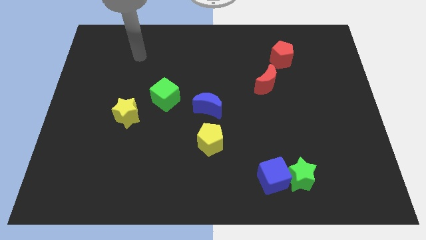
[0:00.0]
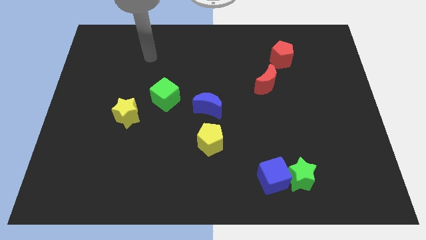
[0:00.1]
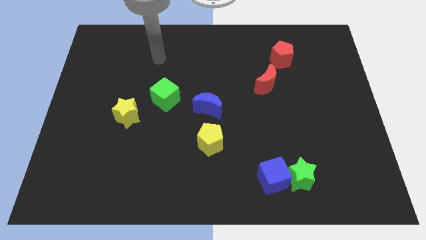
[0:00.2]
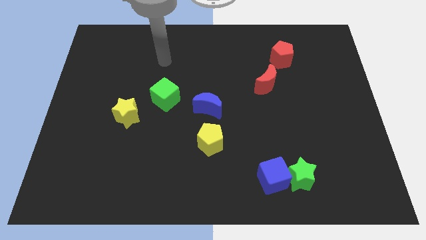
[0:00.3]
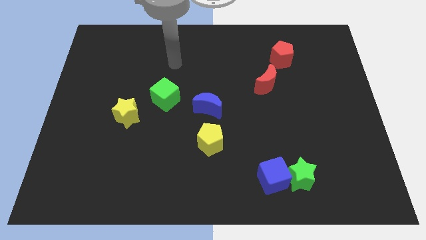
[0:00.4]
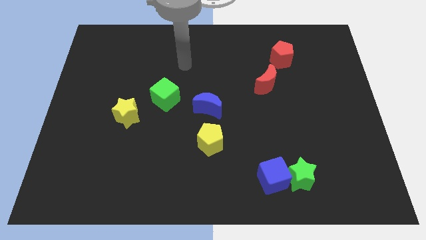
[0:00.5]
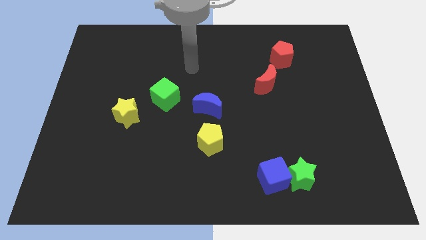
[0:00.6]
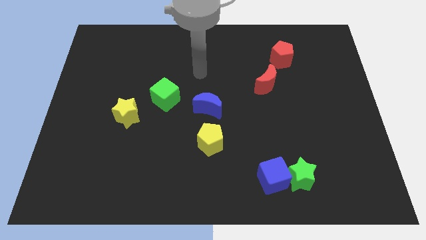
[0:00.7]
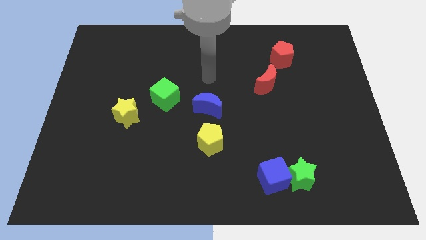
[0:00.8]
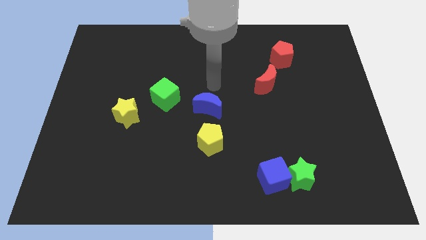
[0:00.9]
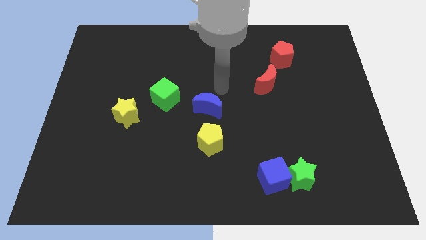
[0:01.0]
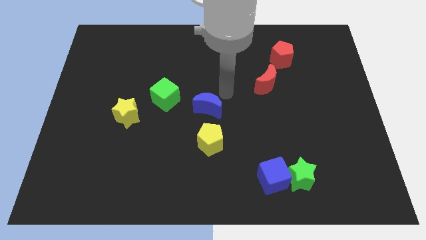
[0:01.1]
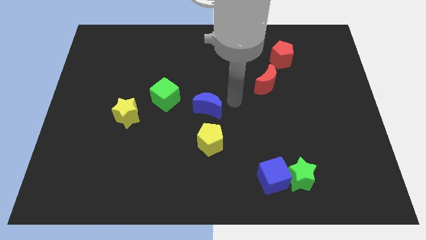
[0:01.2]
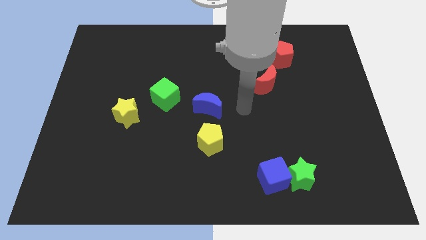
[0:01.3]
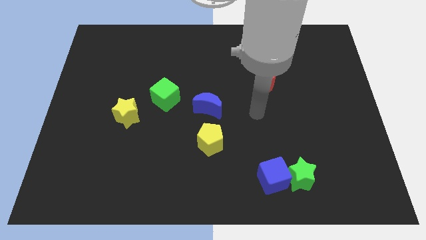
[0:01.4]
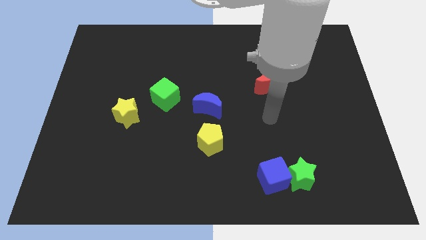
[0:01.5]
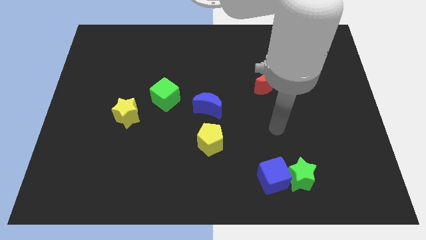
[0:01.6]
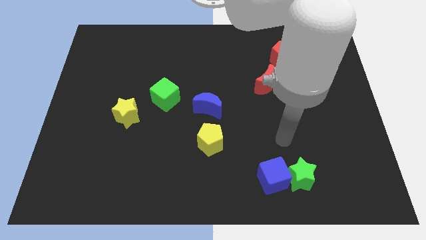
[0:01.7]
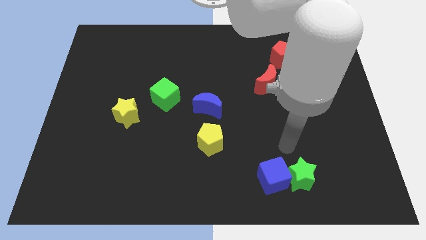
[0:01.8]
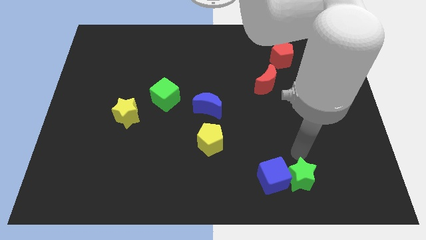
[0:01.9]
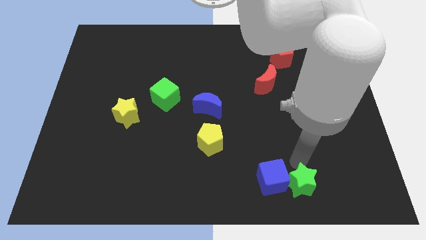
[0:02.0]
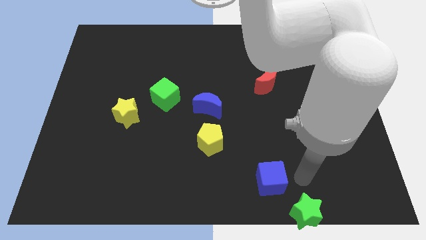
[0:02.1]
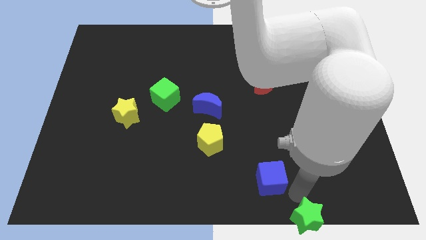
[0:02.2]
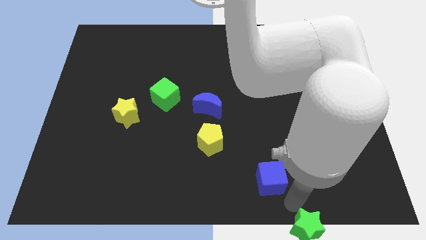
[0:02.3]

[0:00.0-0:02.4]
move the blue cube away from the green star

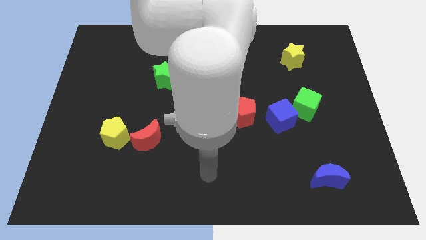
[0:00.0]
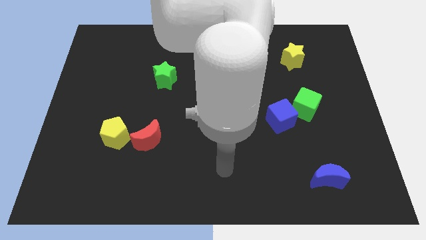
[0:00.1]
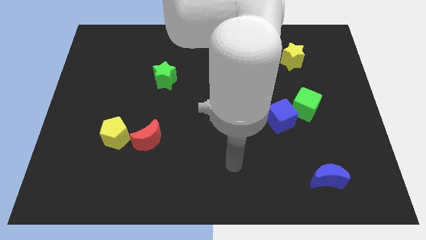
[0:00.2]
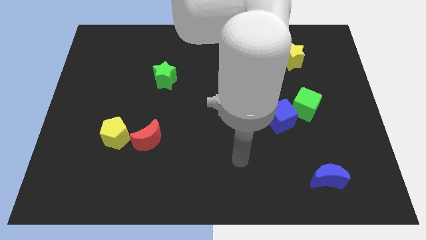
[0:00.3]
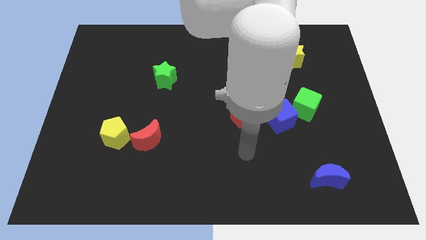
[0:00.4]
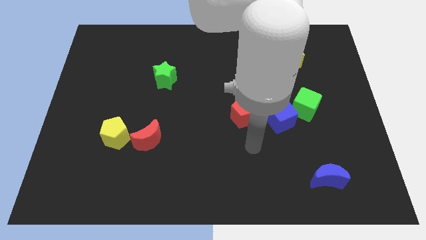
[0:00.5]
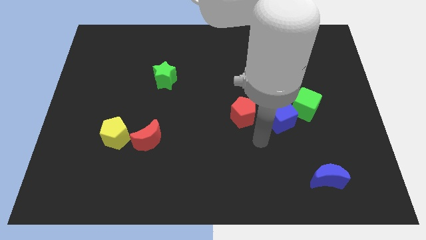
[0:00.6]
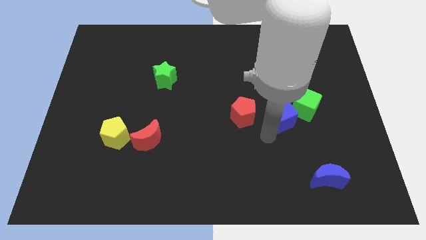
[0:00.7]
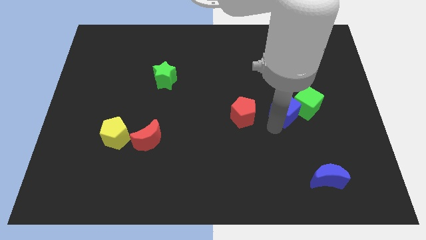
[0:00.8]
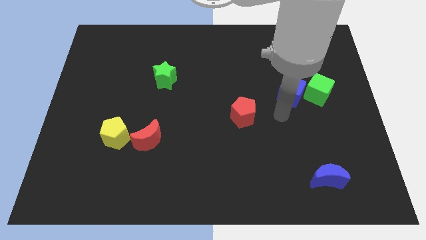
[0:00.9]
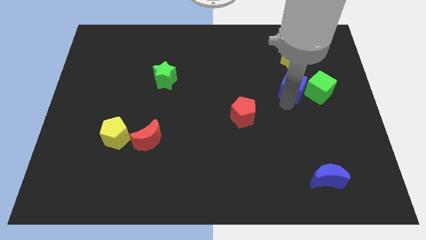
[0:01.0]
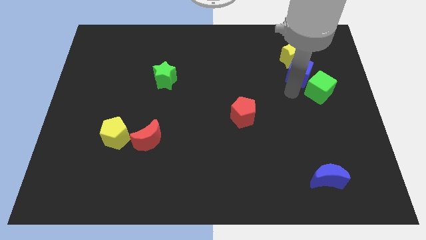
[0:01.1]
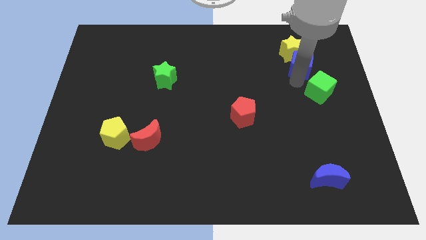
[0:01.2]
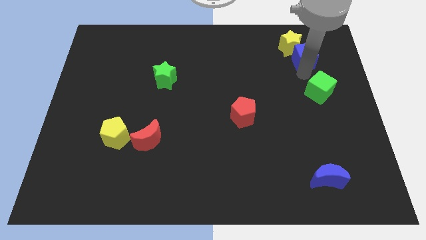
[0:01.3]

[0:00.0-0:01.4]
separate the green cube from the blue cube

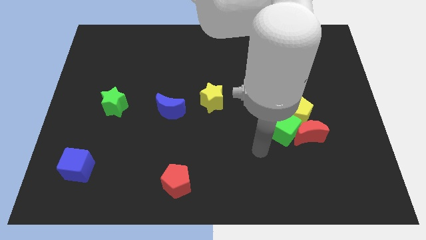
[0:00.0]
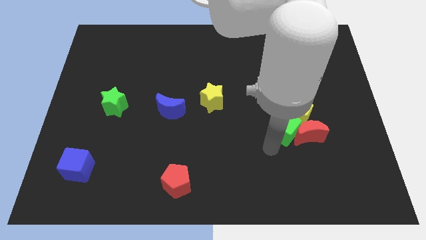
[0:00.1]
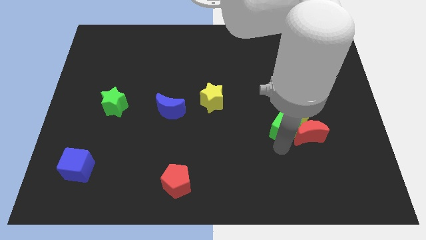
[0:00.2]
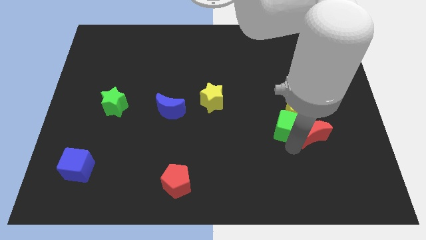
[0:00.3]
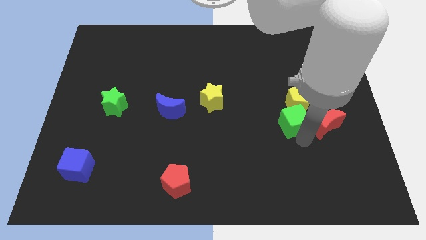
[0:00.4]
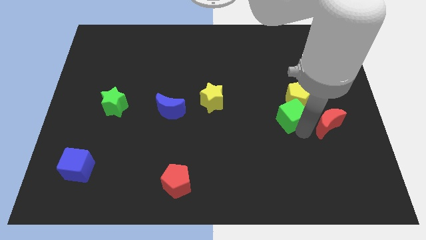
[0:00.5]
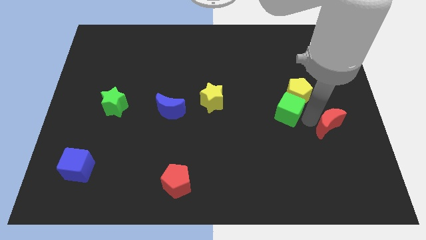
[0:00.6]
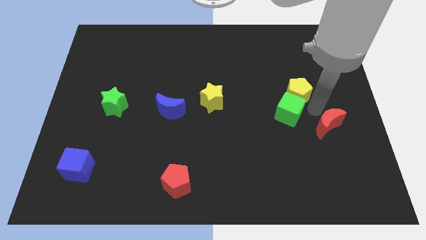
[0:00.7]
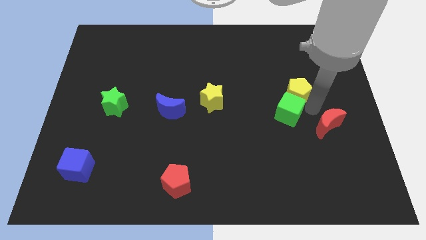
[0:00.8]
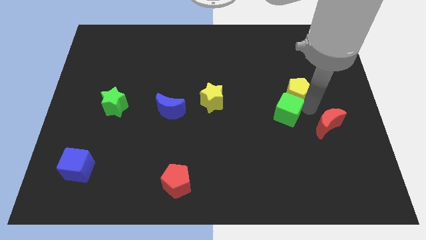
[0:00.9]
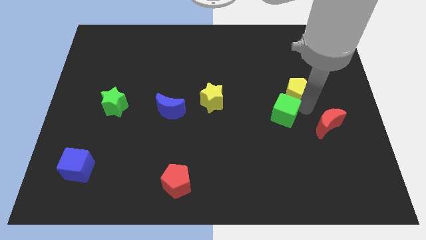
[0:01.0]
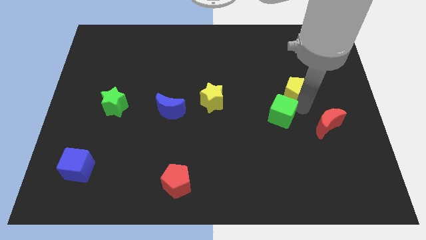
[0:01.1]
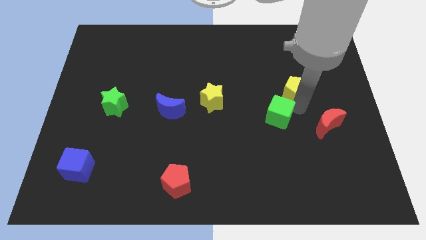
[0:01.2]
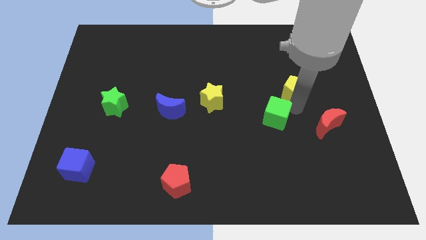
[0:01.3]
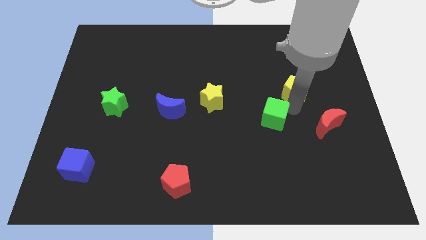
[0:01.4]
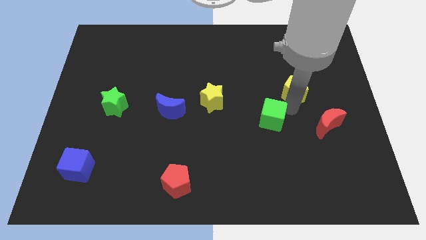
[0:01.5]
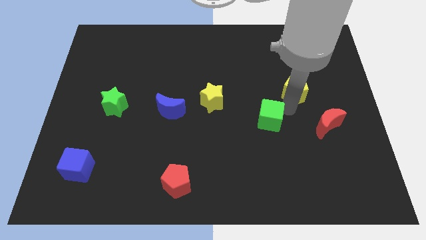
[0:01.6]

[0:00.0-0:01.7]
pull the green cube apart from the red moon and yellow pentagon

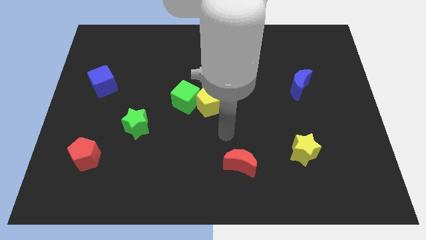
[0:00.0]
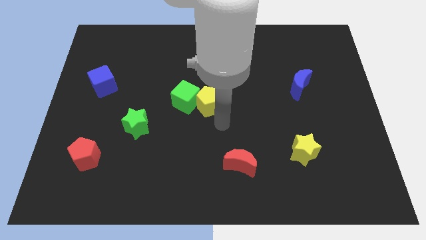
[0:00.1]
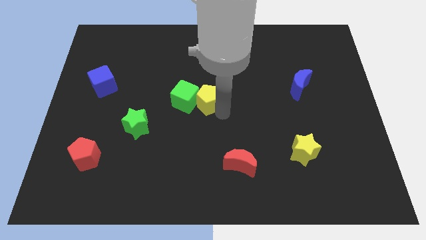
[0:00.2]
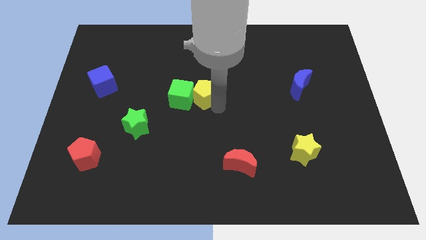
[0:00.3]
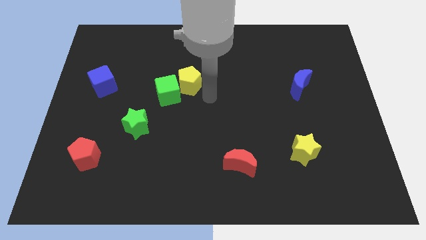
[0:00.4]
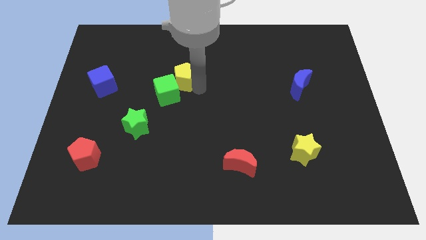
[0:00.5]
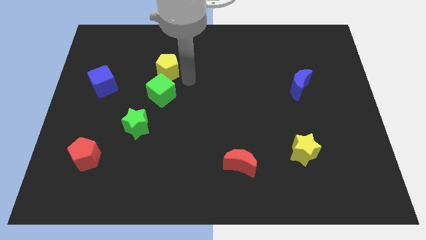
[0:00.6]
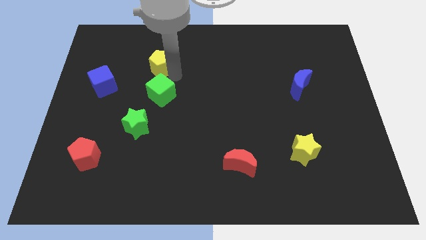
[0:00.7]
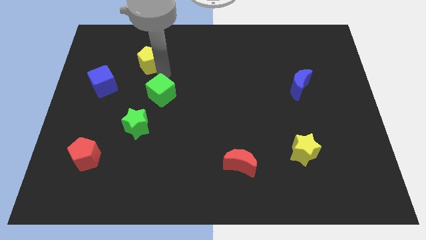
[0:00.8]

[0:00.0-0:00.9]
separate the green cube from the yellow pentagon

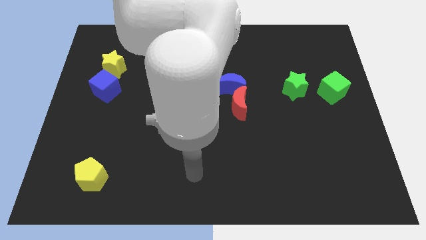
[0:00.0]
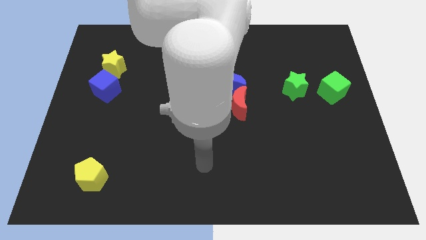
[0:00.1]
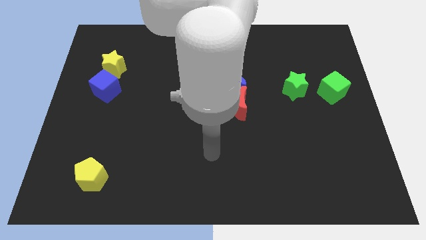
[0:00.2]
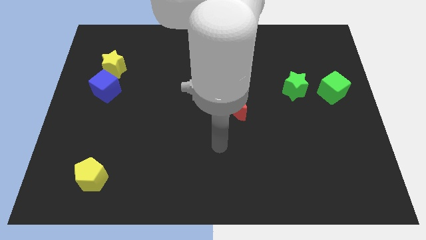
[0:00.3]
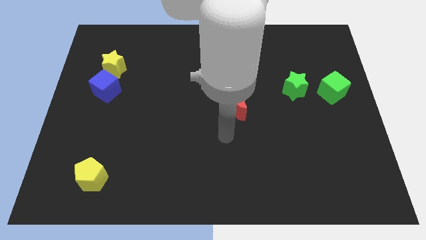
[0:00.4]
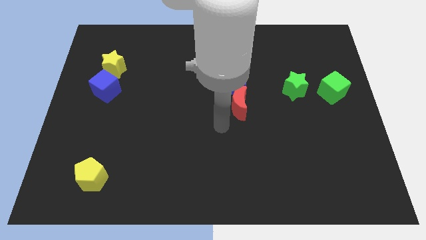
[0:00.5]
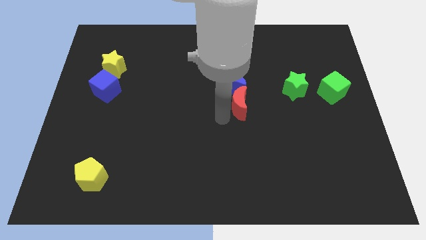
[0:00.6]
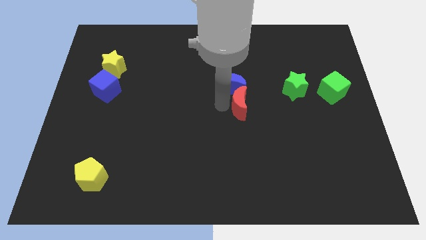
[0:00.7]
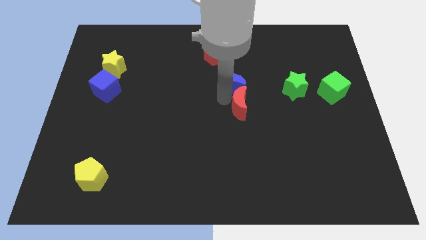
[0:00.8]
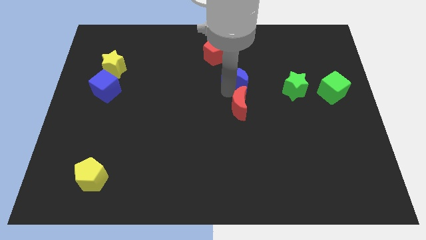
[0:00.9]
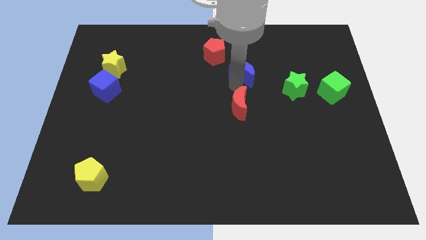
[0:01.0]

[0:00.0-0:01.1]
pull the red moon apart from the blue moon

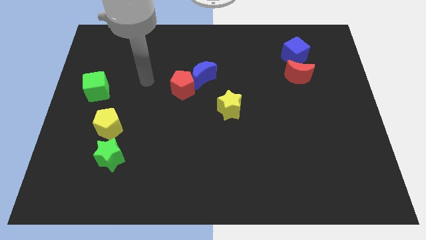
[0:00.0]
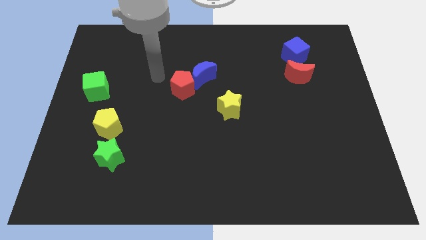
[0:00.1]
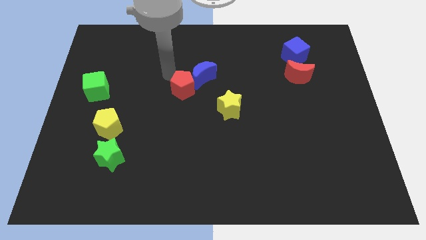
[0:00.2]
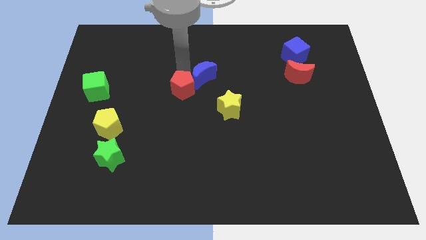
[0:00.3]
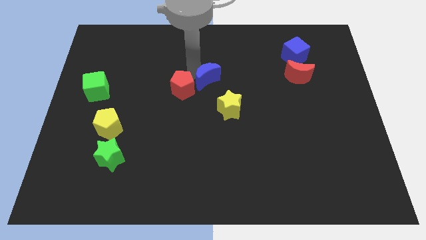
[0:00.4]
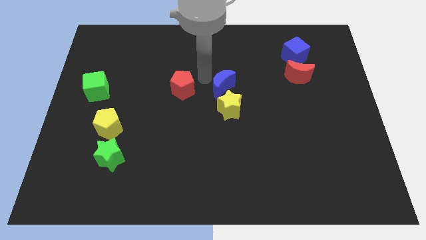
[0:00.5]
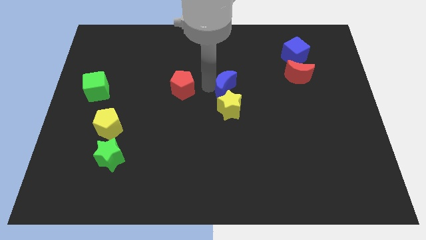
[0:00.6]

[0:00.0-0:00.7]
pull the red pentagon apart from the blue moon

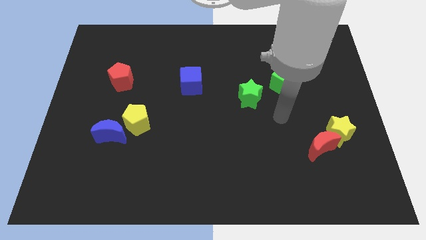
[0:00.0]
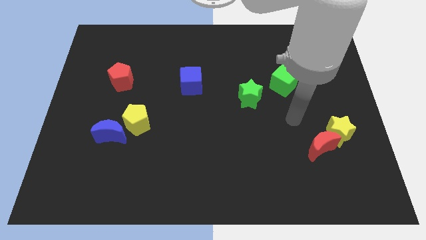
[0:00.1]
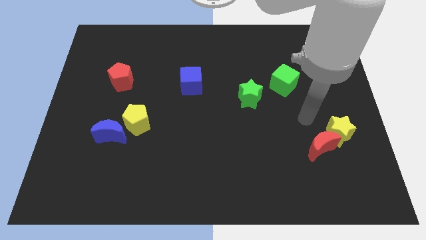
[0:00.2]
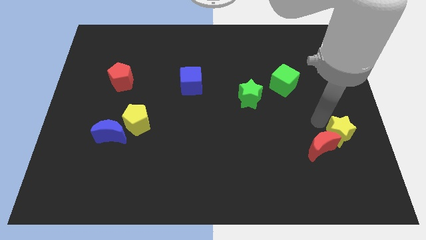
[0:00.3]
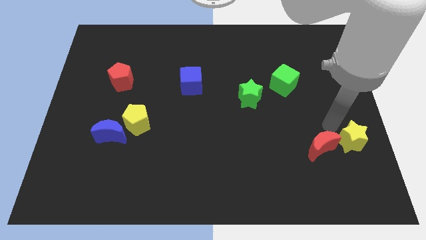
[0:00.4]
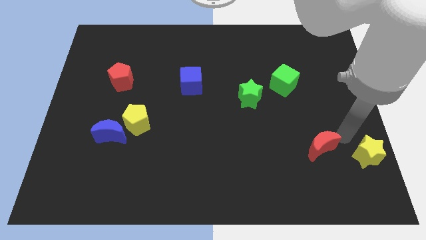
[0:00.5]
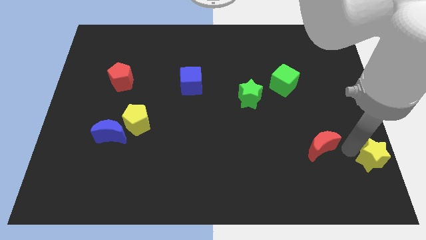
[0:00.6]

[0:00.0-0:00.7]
pull the red moon apart from the yellow star

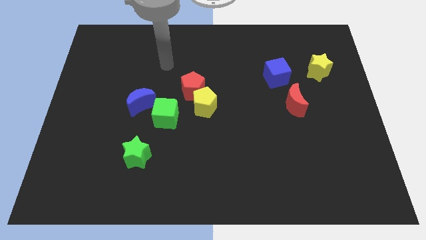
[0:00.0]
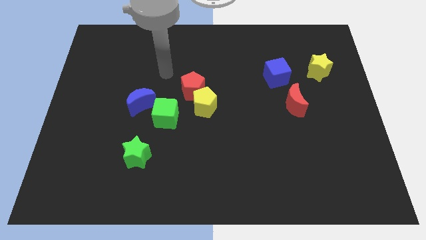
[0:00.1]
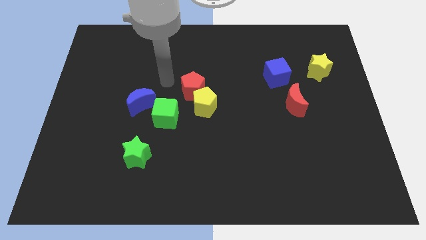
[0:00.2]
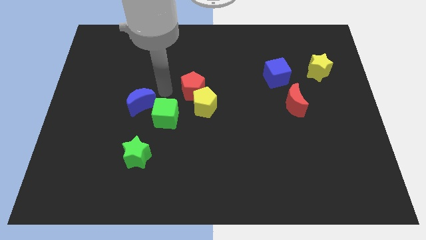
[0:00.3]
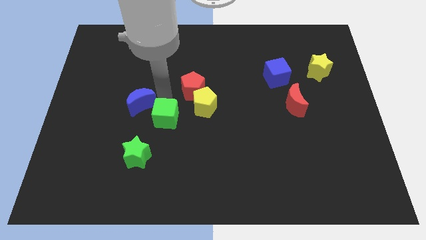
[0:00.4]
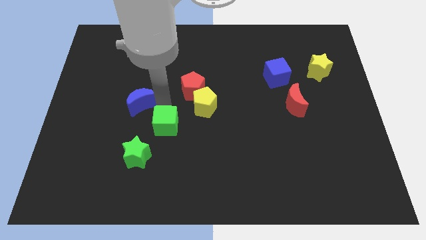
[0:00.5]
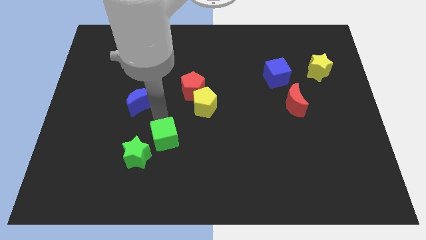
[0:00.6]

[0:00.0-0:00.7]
move the blue moon away from the green cube
